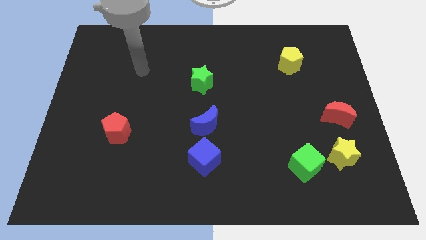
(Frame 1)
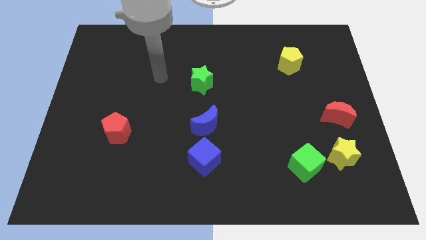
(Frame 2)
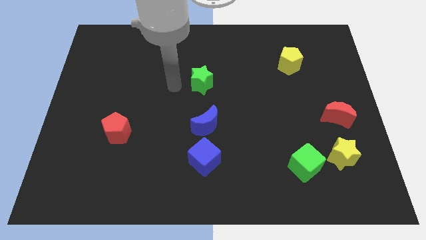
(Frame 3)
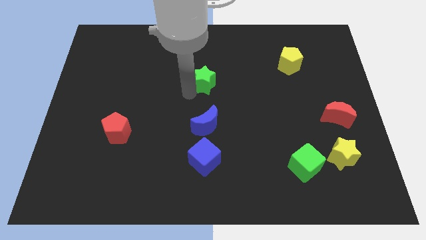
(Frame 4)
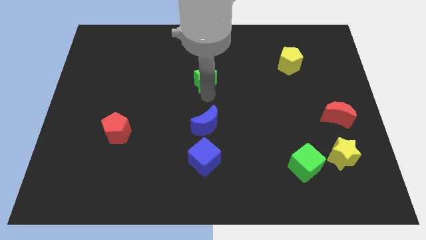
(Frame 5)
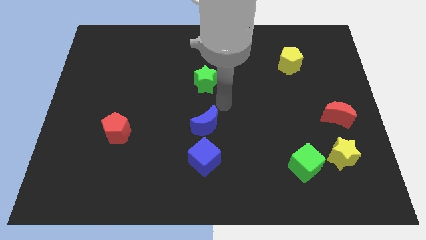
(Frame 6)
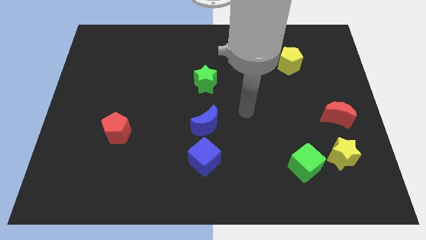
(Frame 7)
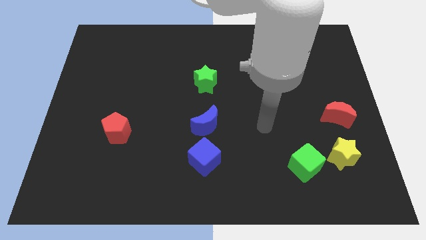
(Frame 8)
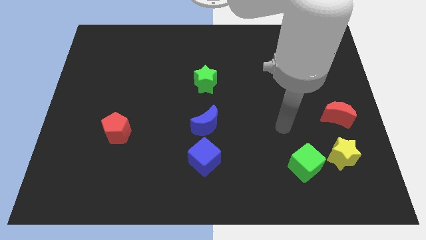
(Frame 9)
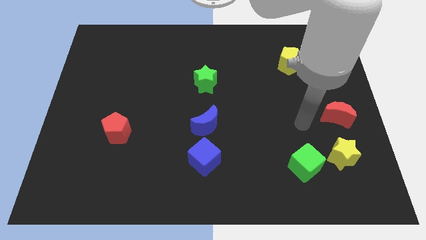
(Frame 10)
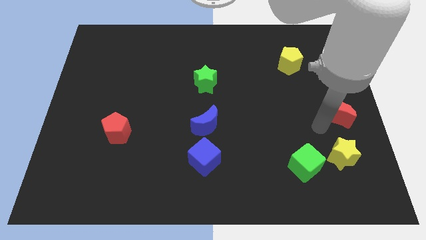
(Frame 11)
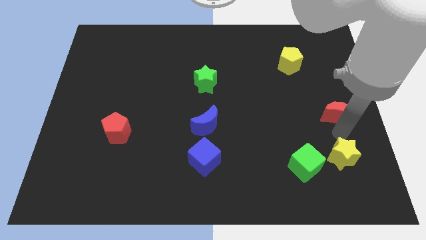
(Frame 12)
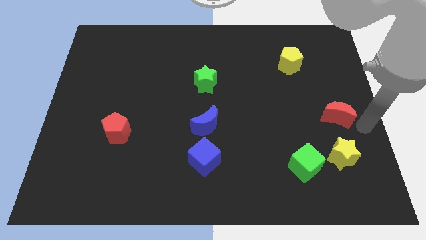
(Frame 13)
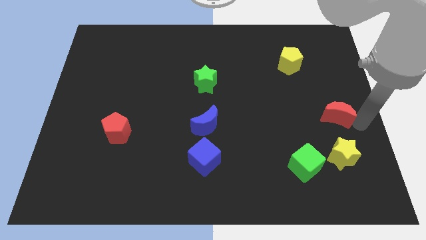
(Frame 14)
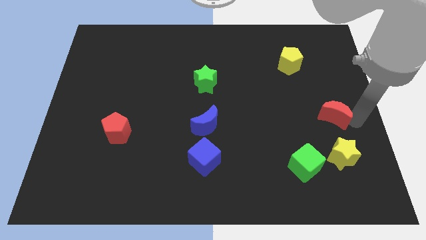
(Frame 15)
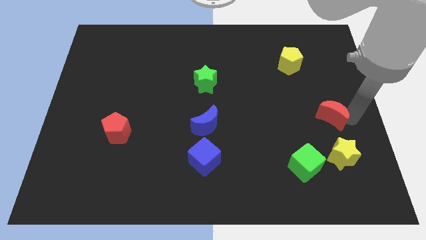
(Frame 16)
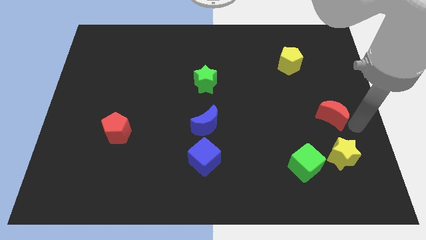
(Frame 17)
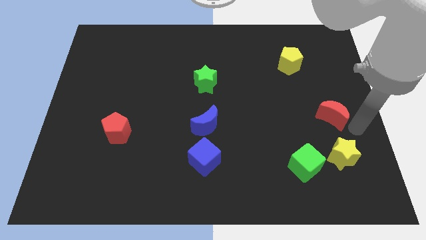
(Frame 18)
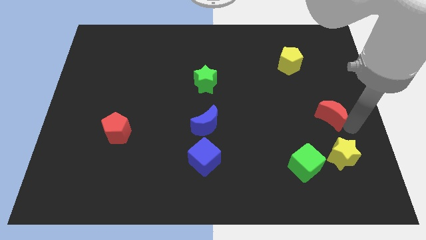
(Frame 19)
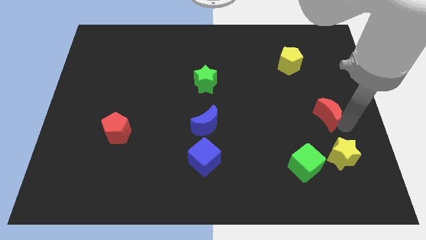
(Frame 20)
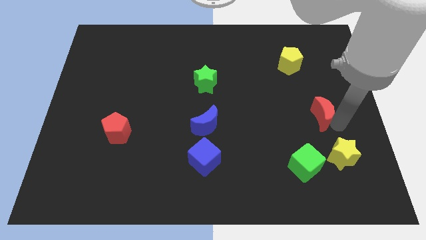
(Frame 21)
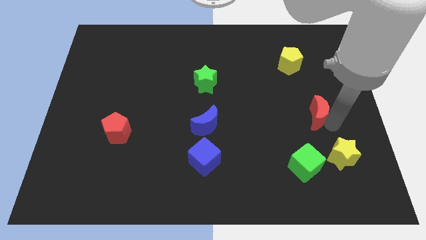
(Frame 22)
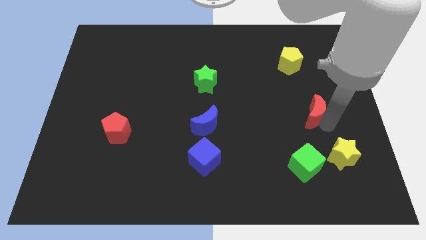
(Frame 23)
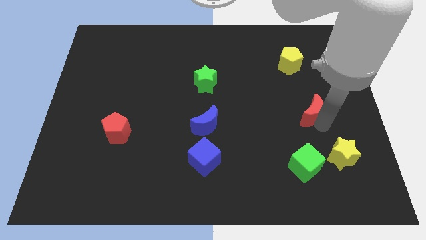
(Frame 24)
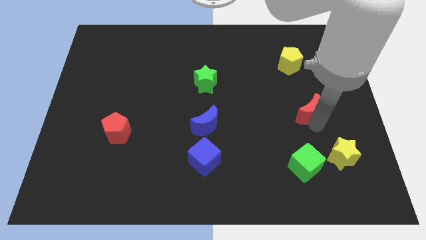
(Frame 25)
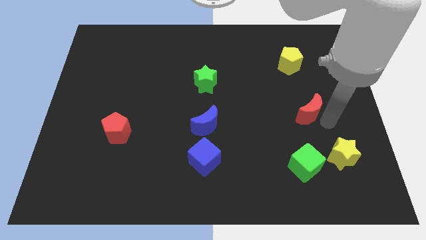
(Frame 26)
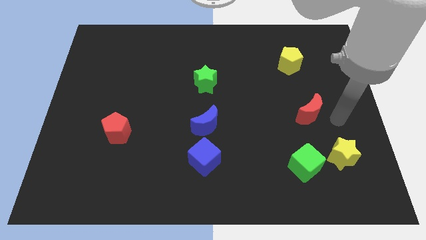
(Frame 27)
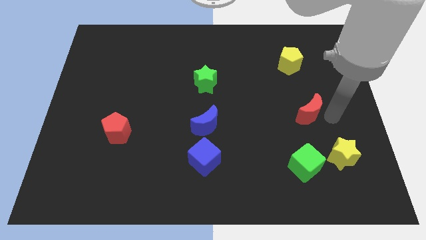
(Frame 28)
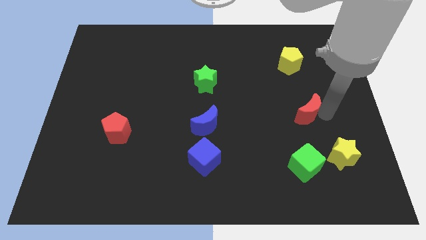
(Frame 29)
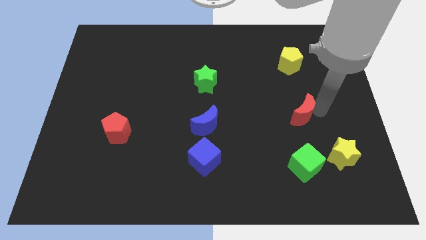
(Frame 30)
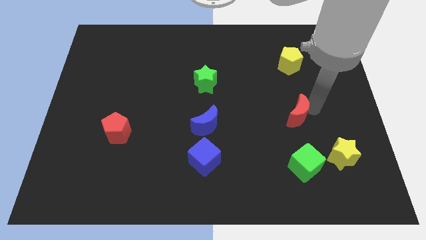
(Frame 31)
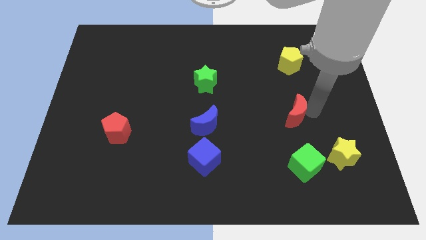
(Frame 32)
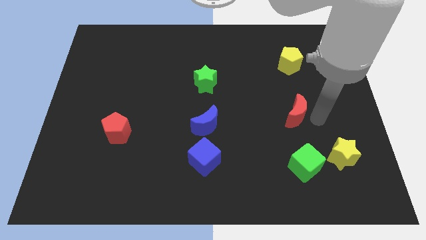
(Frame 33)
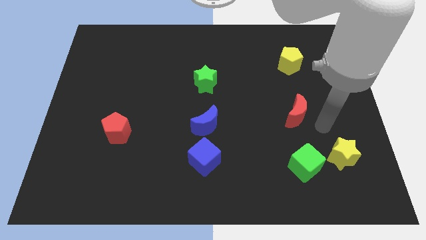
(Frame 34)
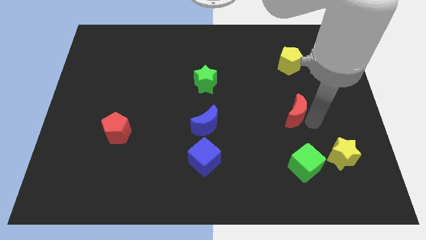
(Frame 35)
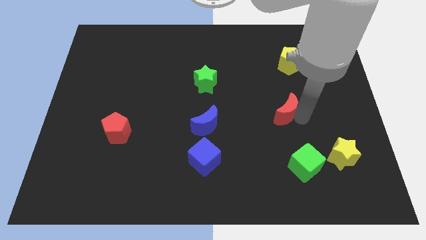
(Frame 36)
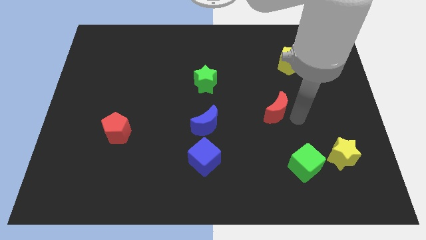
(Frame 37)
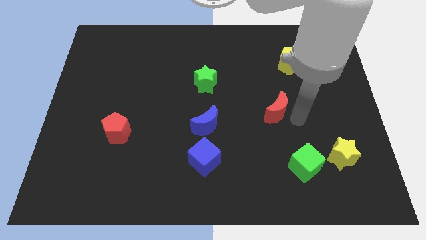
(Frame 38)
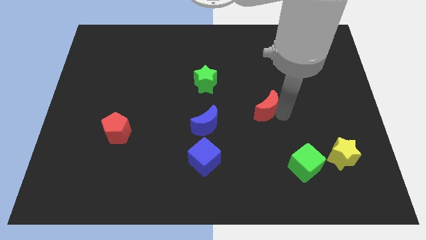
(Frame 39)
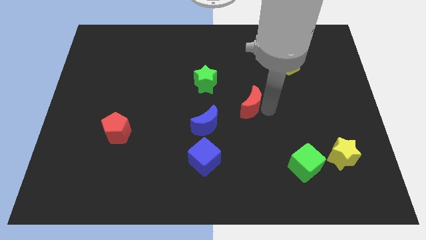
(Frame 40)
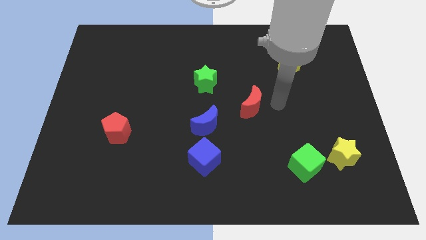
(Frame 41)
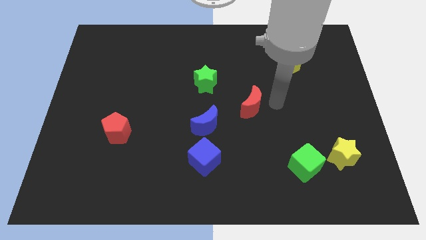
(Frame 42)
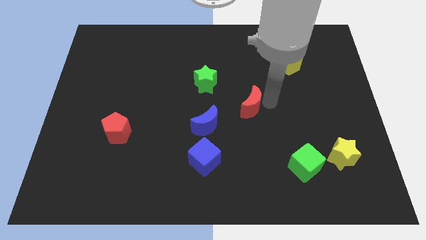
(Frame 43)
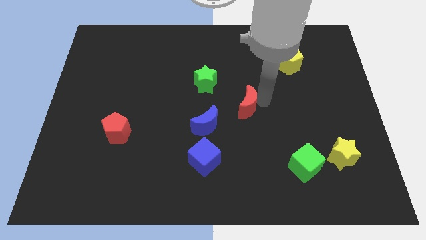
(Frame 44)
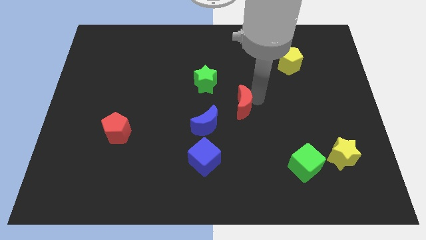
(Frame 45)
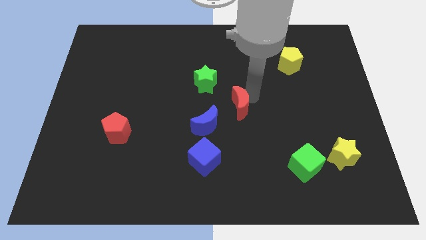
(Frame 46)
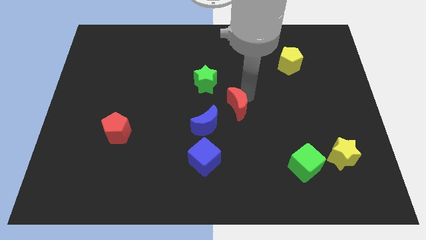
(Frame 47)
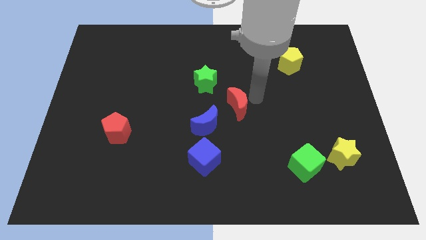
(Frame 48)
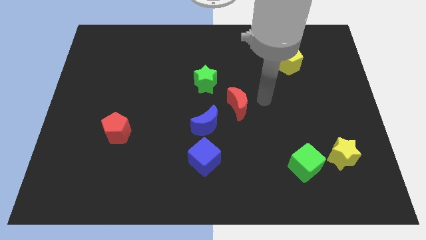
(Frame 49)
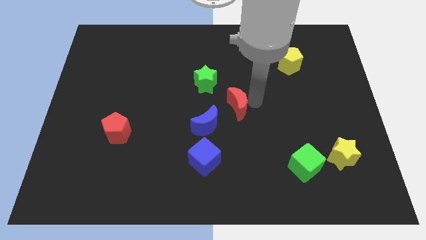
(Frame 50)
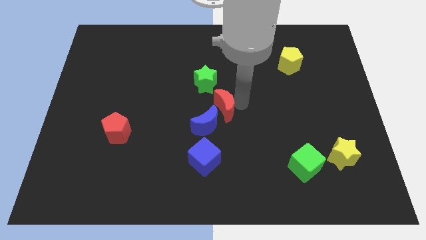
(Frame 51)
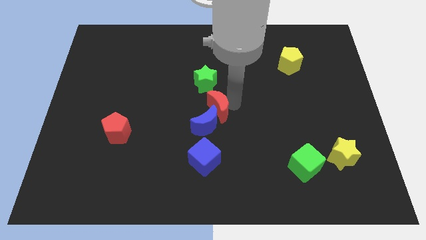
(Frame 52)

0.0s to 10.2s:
push the red moon to the top of the blue cube

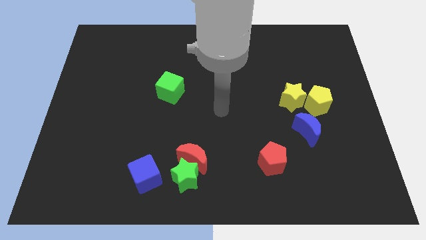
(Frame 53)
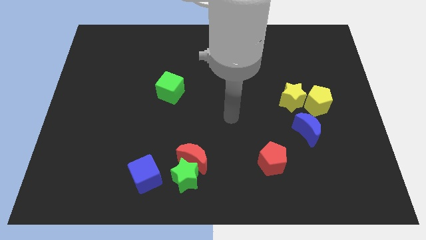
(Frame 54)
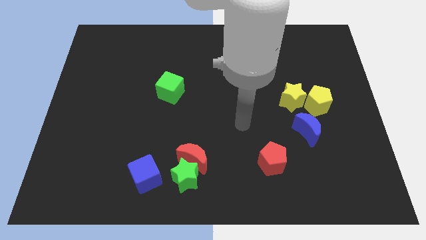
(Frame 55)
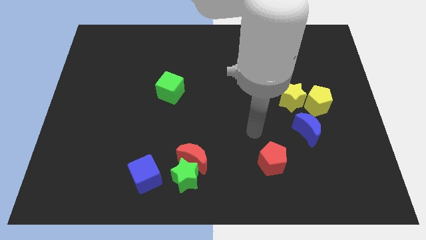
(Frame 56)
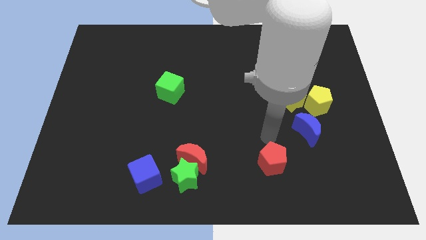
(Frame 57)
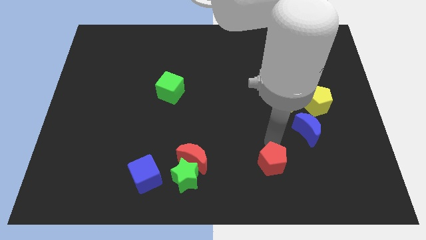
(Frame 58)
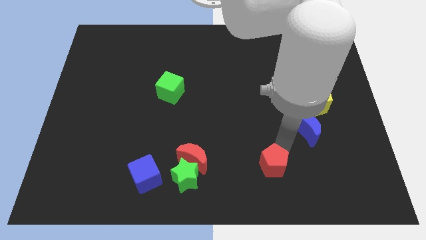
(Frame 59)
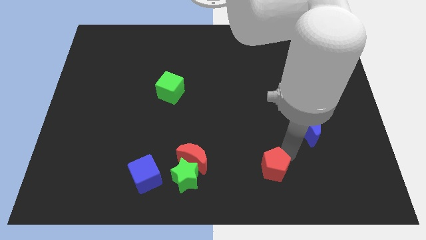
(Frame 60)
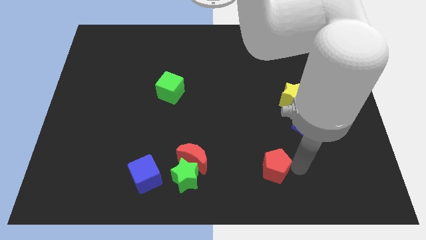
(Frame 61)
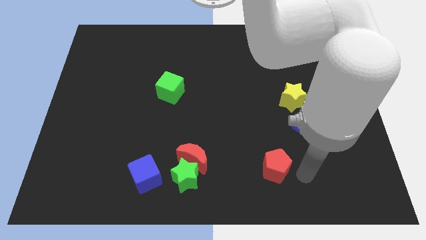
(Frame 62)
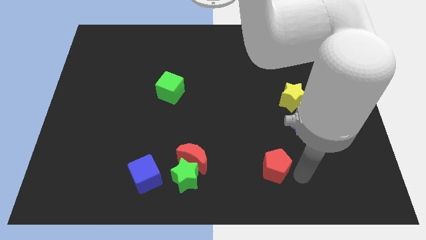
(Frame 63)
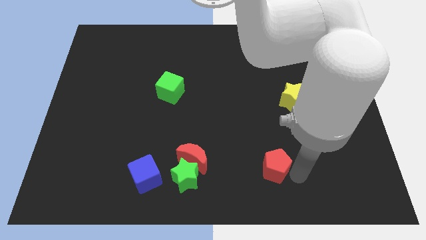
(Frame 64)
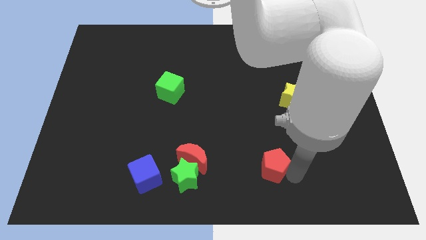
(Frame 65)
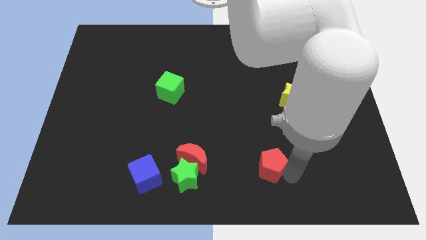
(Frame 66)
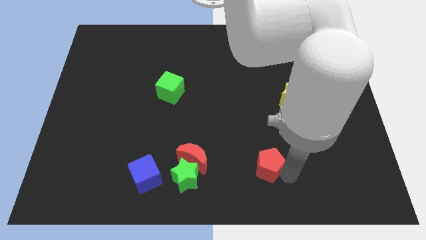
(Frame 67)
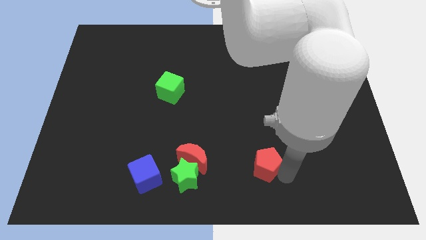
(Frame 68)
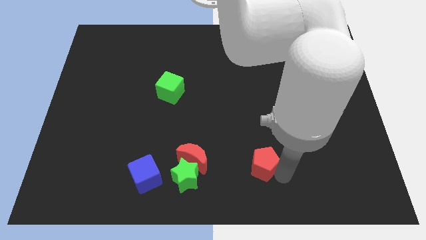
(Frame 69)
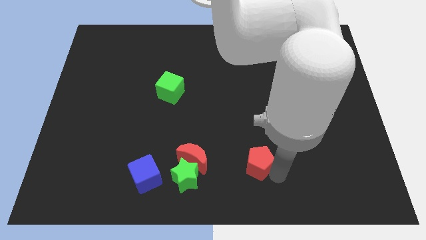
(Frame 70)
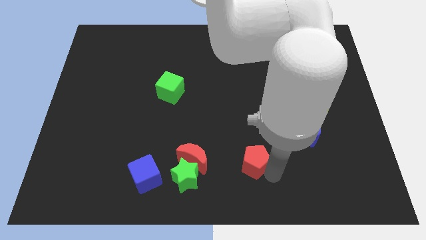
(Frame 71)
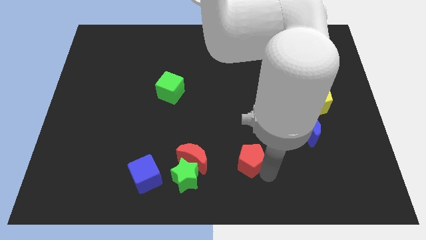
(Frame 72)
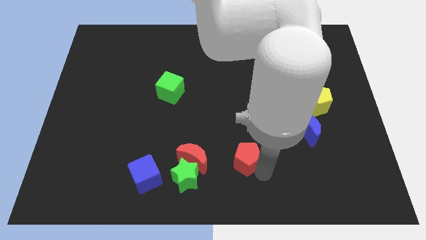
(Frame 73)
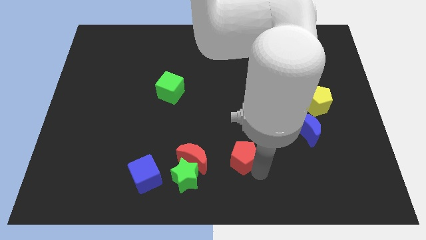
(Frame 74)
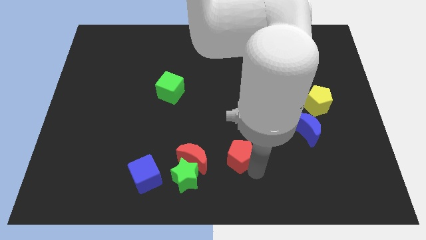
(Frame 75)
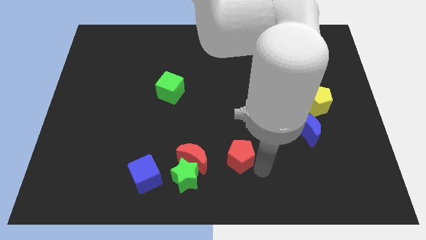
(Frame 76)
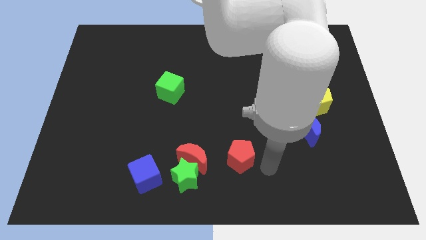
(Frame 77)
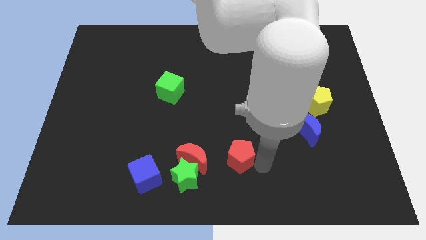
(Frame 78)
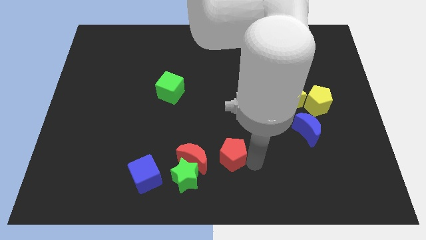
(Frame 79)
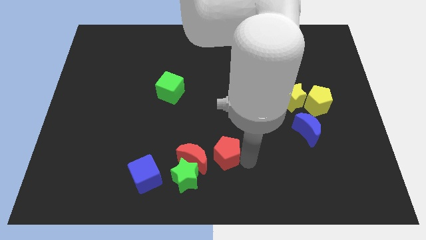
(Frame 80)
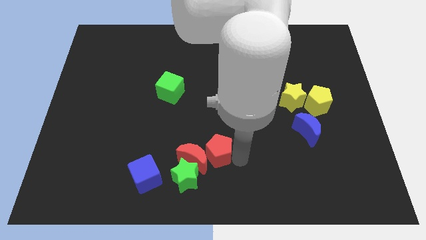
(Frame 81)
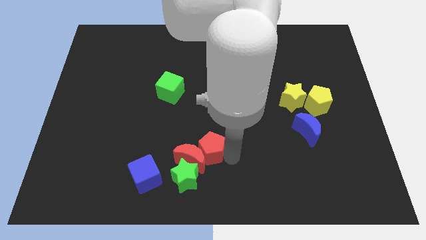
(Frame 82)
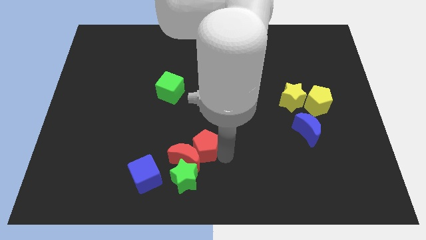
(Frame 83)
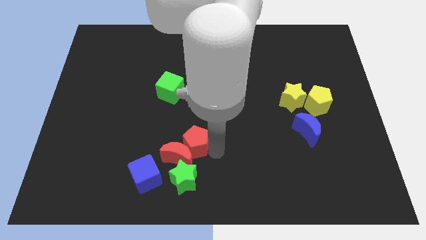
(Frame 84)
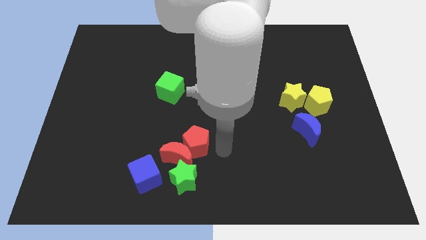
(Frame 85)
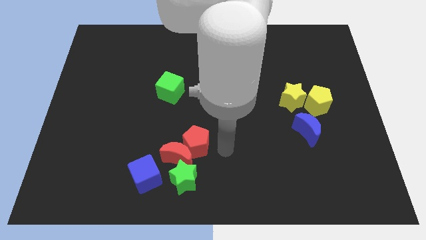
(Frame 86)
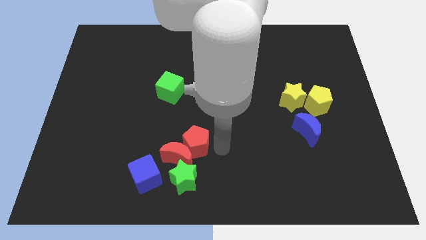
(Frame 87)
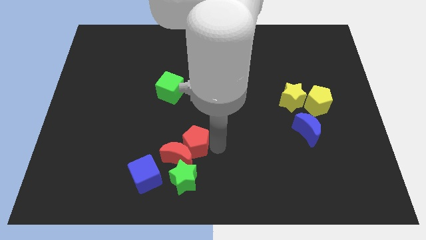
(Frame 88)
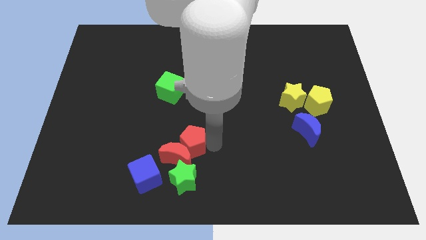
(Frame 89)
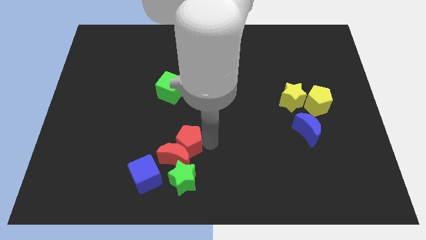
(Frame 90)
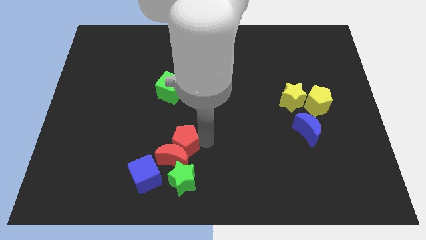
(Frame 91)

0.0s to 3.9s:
slide the red pentagon to the top left of the red moon
